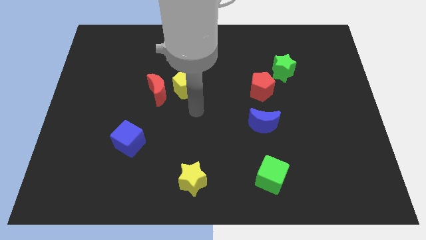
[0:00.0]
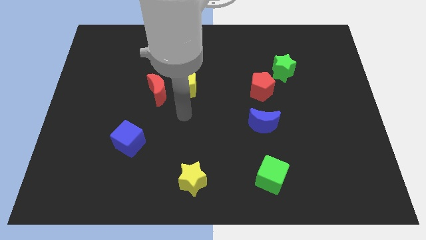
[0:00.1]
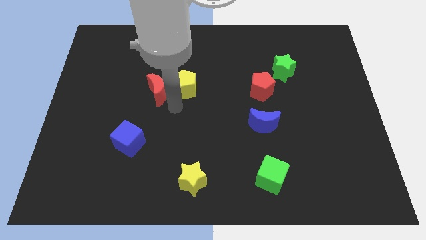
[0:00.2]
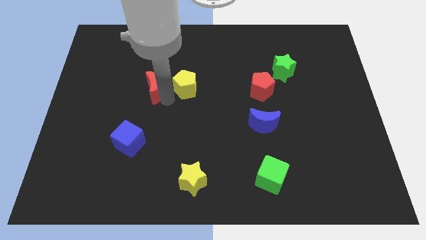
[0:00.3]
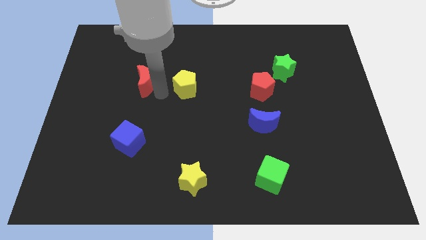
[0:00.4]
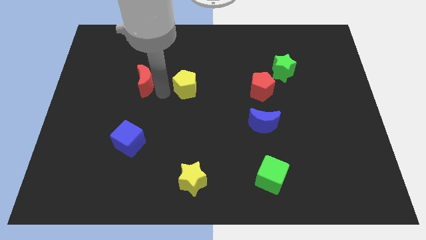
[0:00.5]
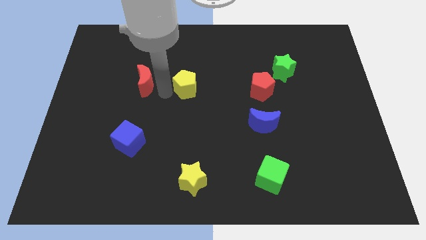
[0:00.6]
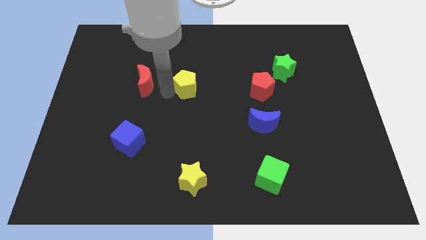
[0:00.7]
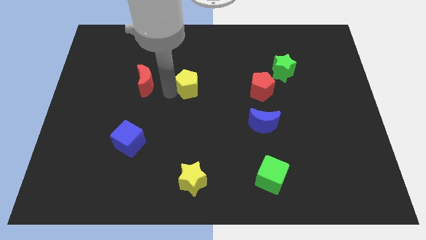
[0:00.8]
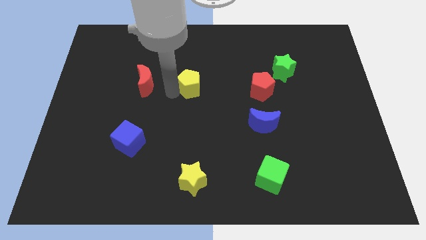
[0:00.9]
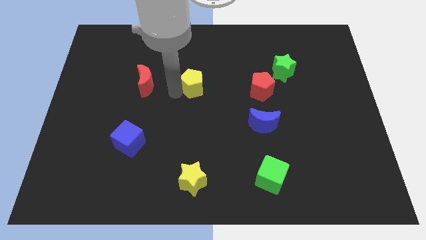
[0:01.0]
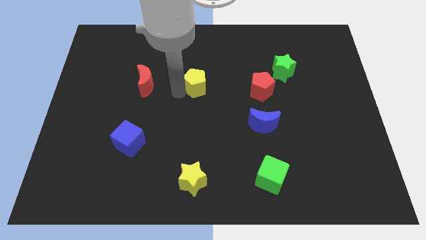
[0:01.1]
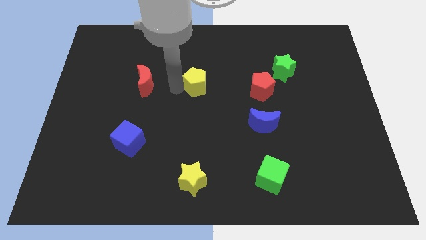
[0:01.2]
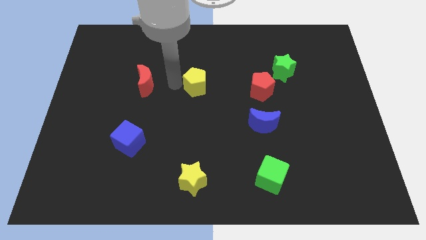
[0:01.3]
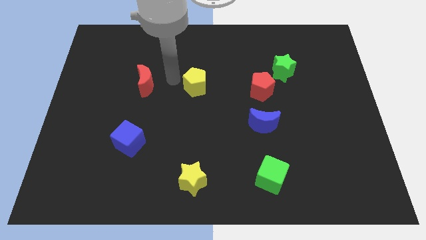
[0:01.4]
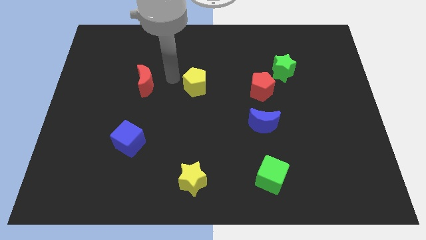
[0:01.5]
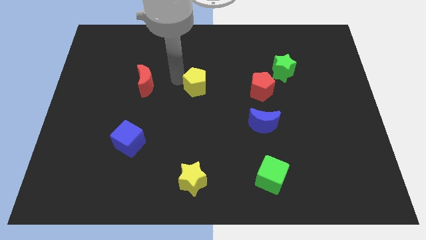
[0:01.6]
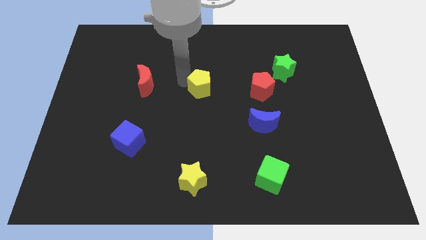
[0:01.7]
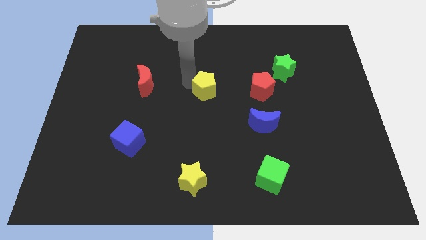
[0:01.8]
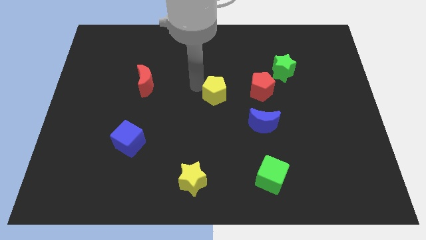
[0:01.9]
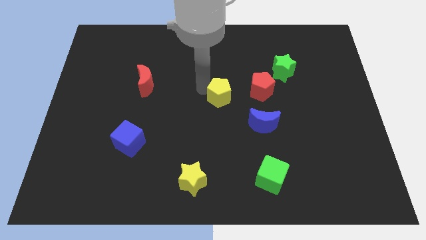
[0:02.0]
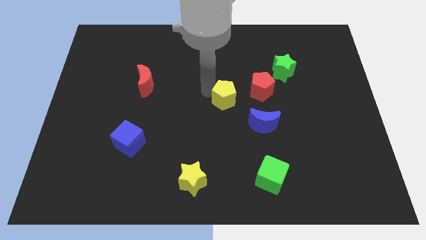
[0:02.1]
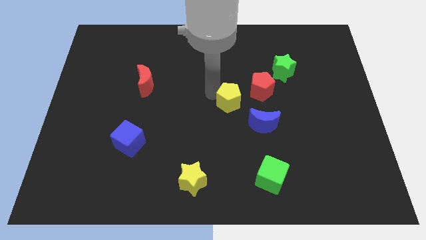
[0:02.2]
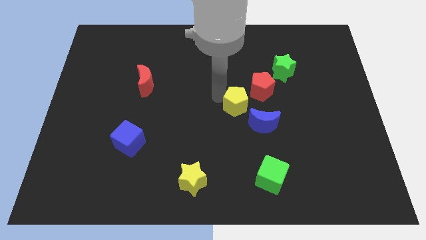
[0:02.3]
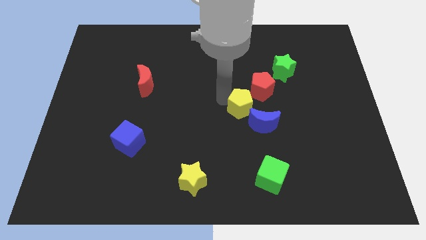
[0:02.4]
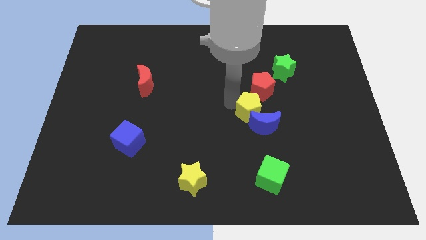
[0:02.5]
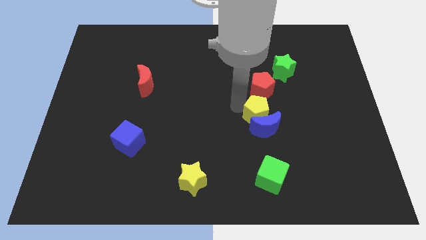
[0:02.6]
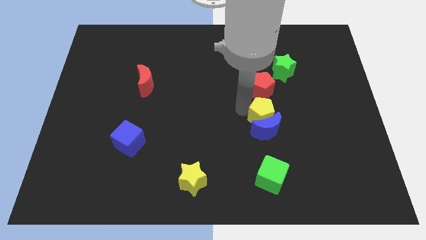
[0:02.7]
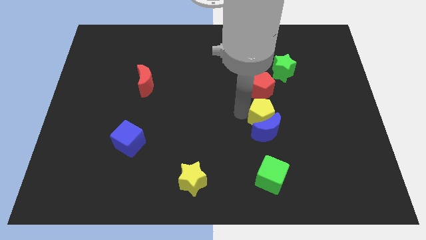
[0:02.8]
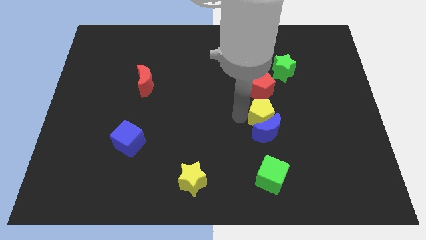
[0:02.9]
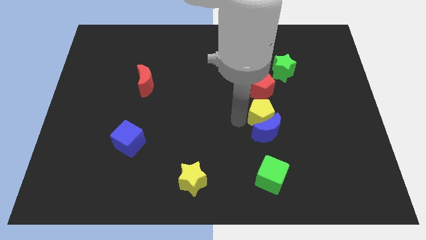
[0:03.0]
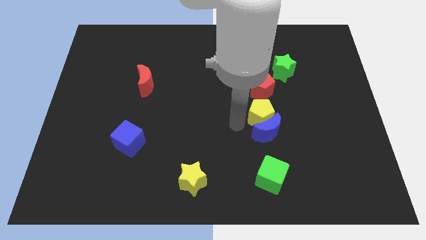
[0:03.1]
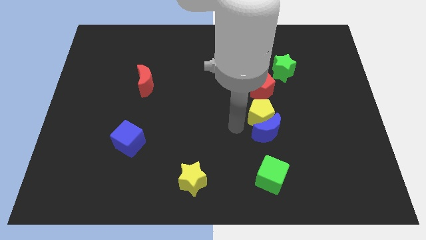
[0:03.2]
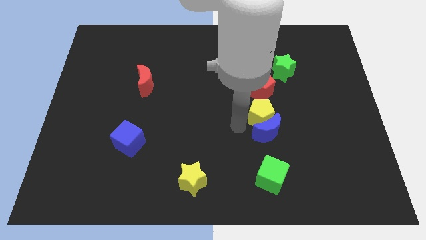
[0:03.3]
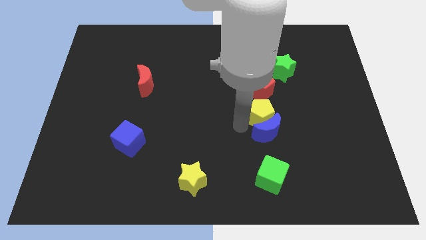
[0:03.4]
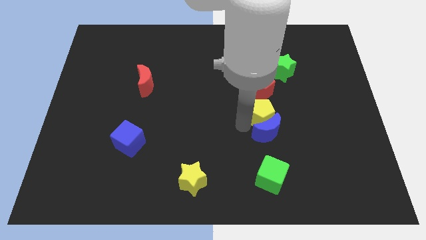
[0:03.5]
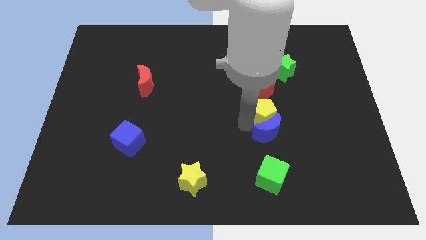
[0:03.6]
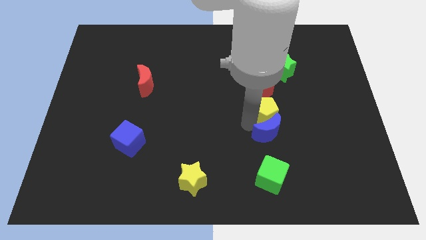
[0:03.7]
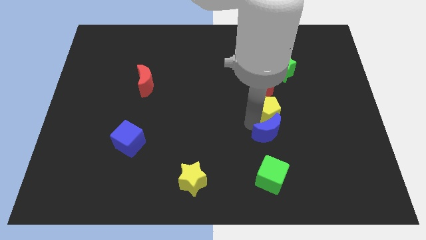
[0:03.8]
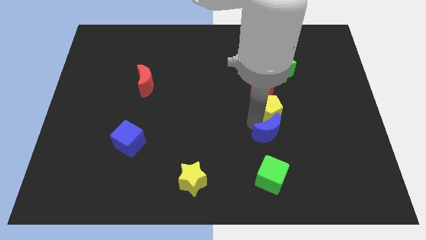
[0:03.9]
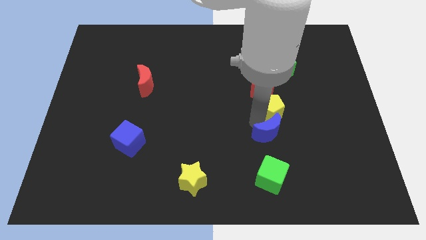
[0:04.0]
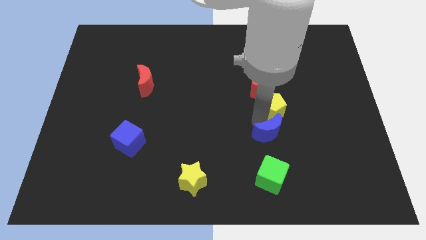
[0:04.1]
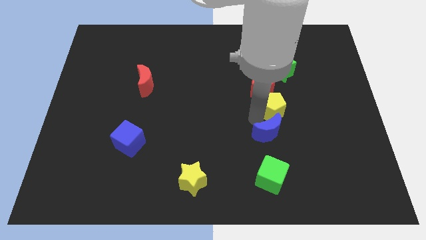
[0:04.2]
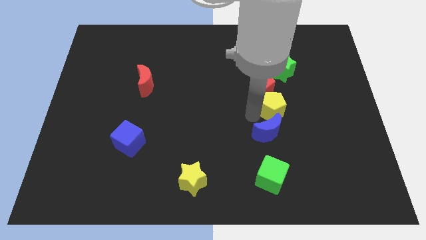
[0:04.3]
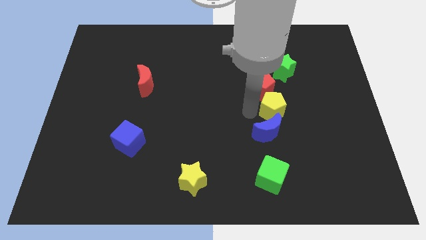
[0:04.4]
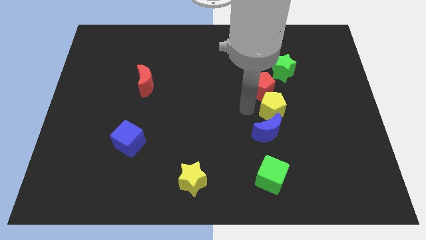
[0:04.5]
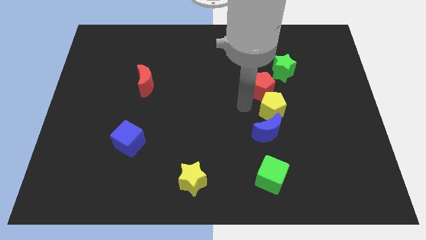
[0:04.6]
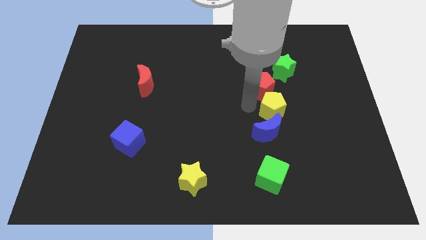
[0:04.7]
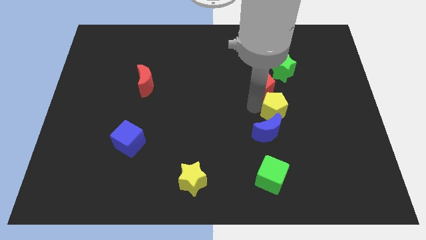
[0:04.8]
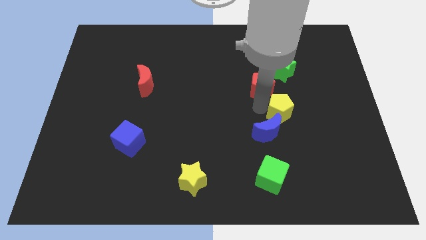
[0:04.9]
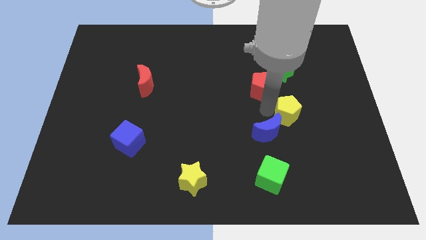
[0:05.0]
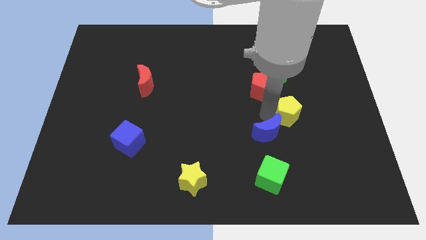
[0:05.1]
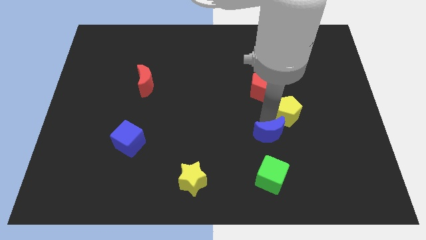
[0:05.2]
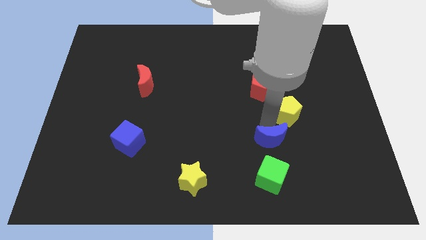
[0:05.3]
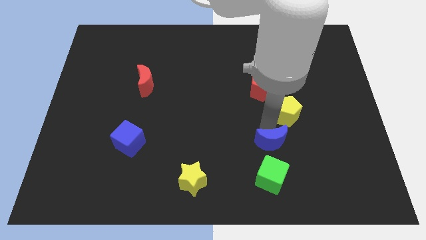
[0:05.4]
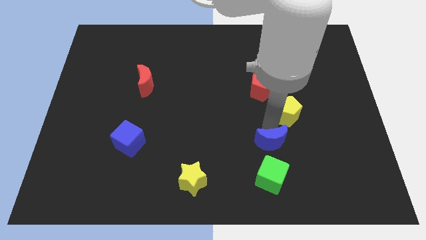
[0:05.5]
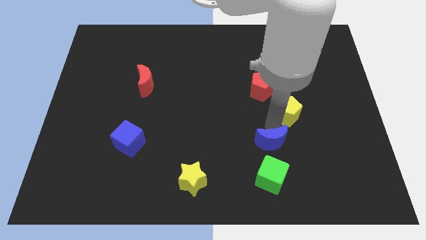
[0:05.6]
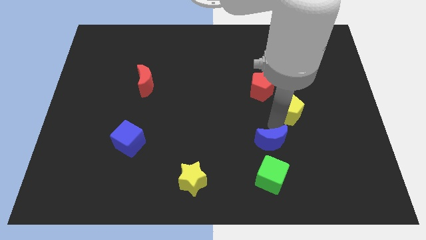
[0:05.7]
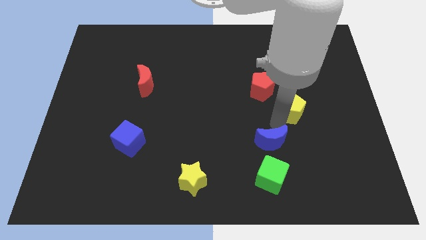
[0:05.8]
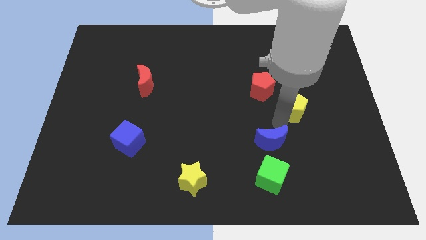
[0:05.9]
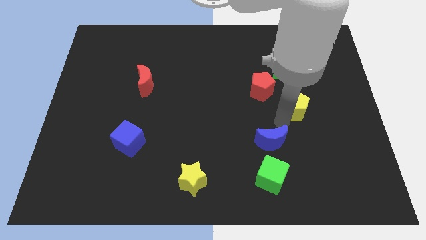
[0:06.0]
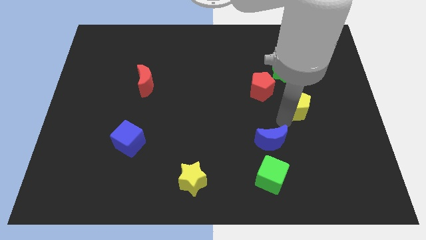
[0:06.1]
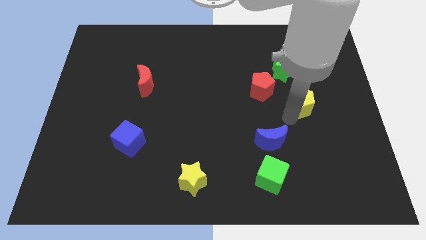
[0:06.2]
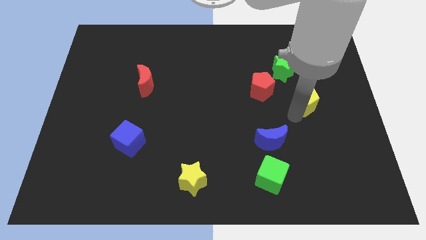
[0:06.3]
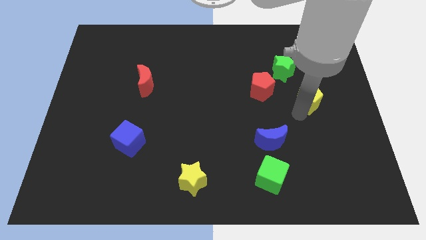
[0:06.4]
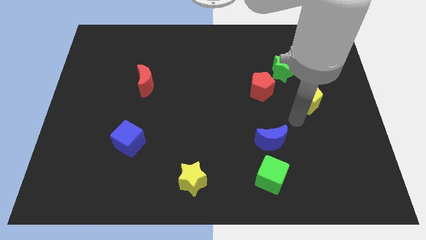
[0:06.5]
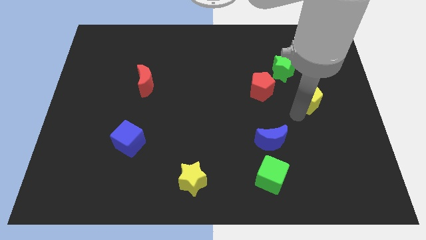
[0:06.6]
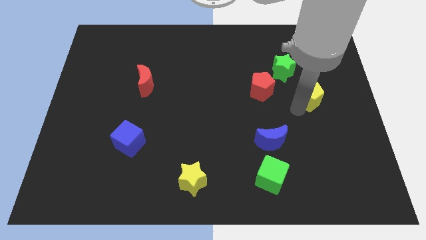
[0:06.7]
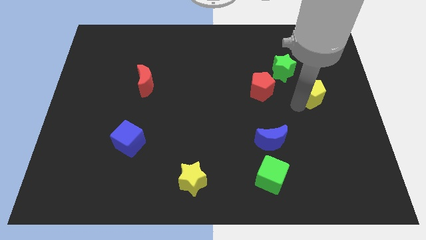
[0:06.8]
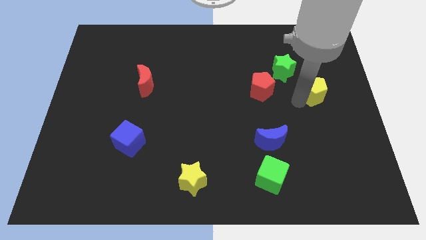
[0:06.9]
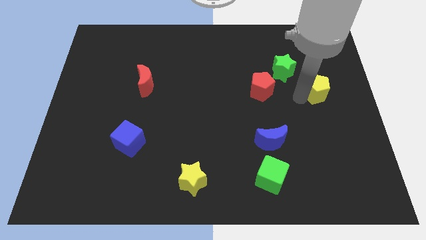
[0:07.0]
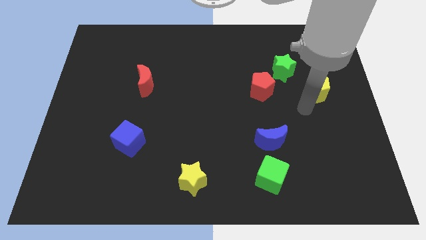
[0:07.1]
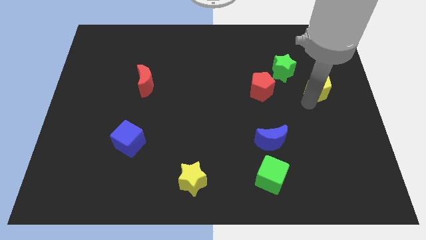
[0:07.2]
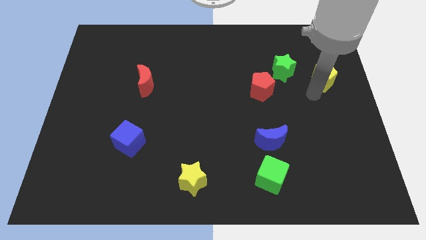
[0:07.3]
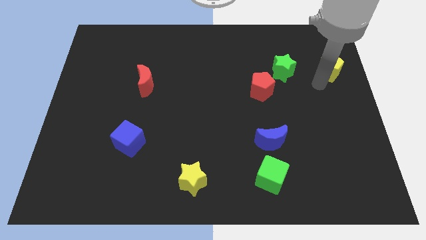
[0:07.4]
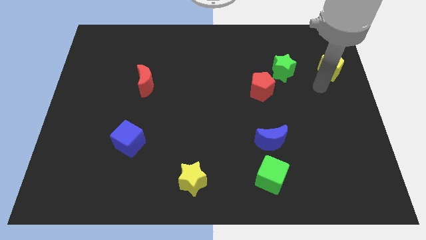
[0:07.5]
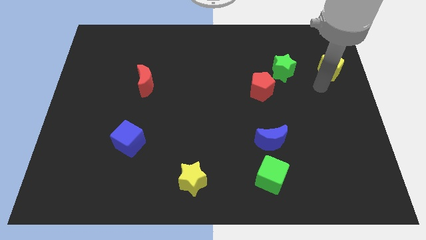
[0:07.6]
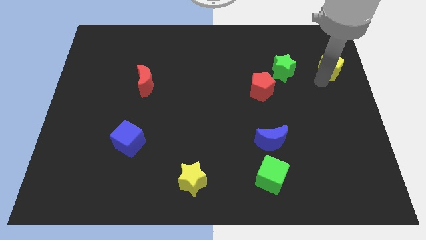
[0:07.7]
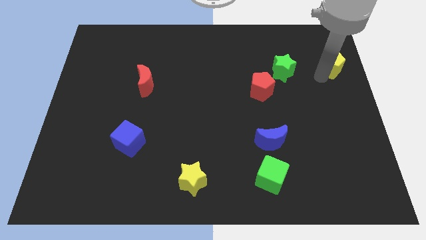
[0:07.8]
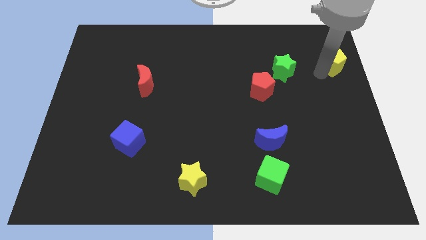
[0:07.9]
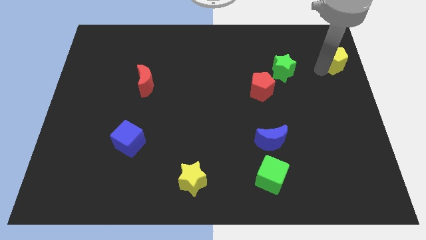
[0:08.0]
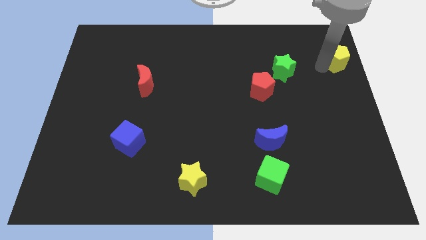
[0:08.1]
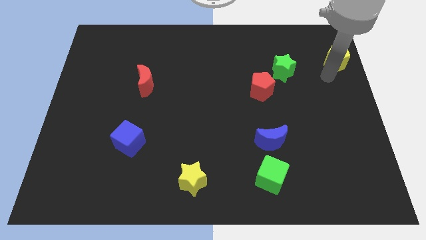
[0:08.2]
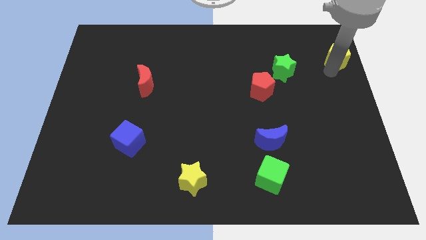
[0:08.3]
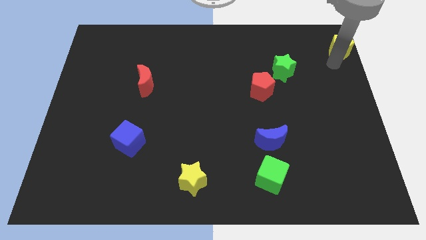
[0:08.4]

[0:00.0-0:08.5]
move the yellow pentagon to the top right of the board
